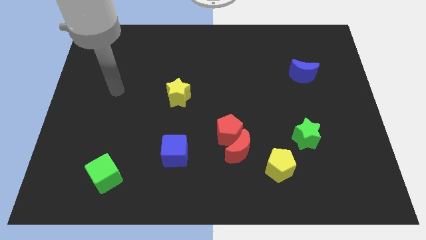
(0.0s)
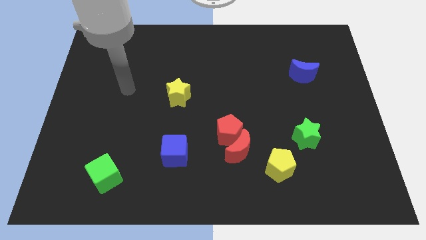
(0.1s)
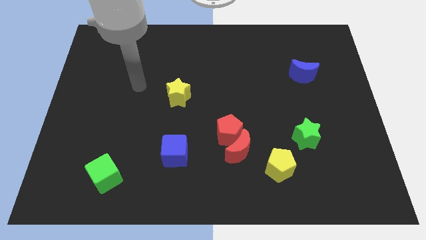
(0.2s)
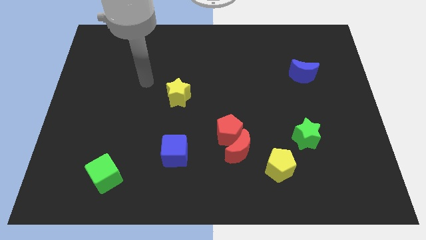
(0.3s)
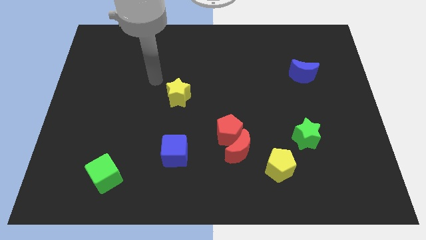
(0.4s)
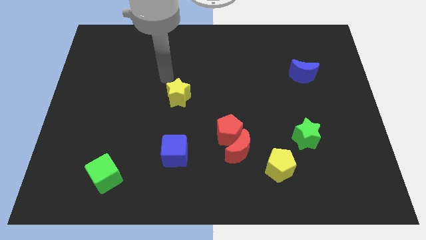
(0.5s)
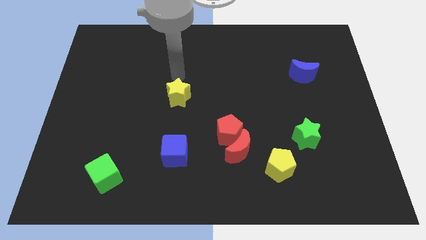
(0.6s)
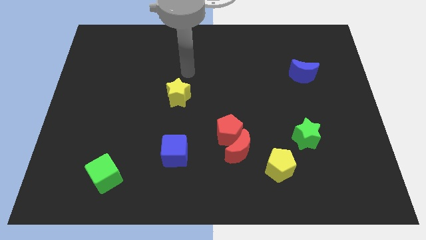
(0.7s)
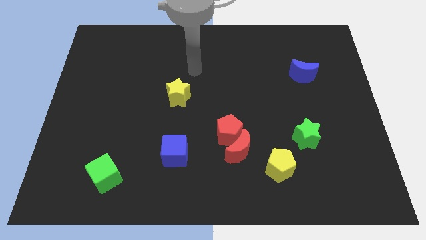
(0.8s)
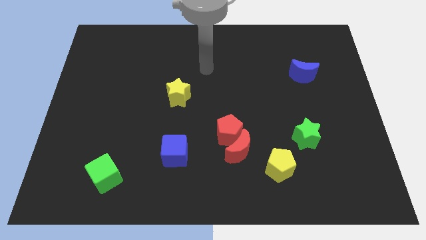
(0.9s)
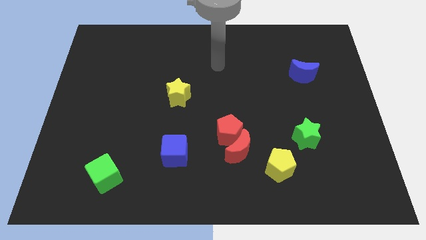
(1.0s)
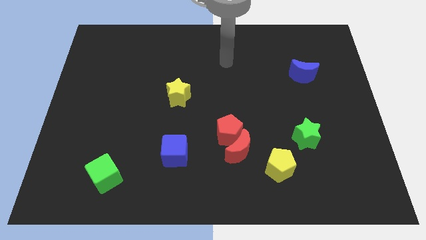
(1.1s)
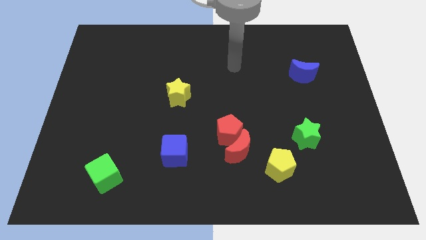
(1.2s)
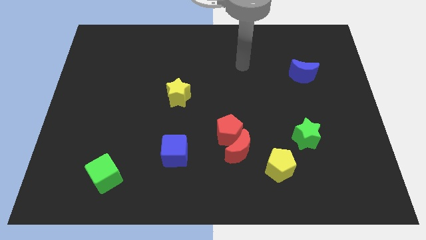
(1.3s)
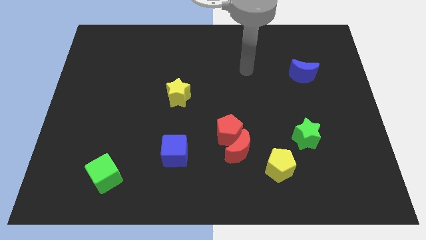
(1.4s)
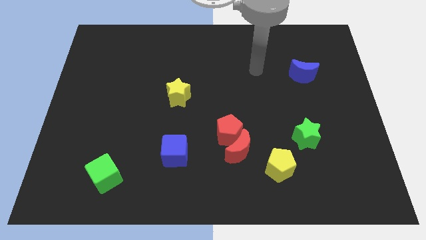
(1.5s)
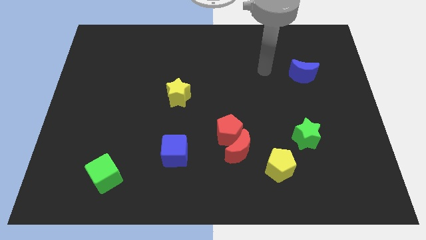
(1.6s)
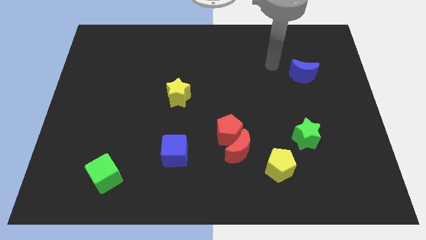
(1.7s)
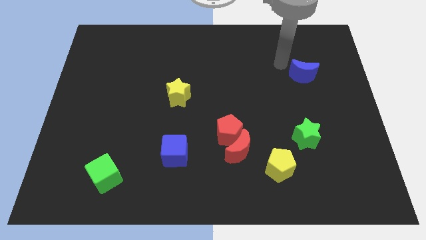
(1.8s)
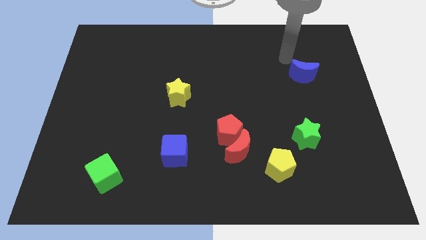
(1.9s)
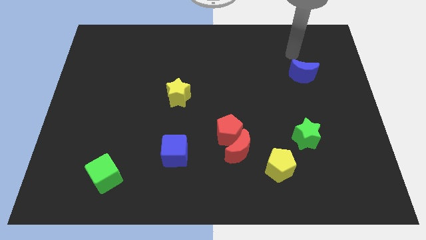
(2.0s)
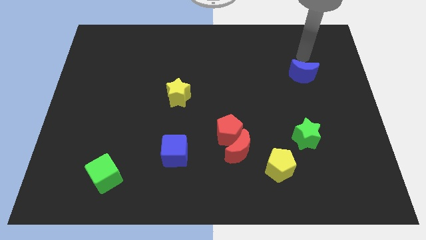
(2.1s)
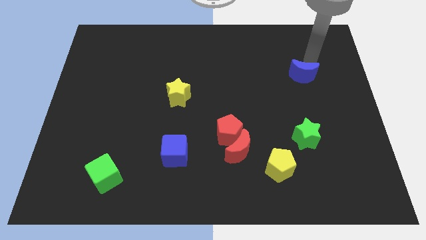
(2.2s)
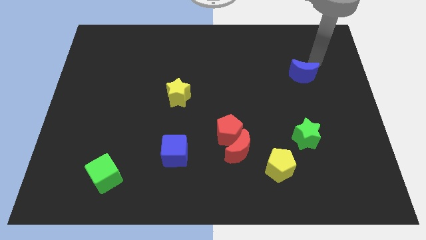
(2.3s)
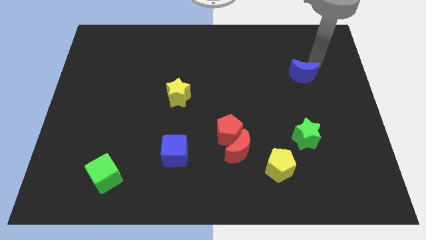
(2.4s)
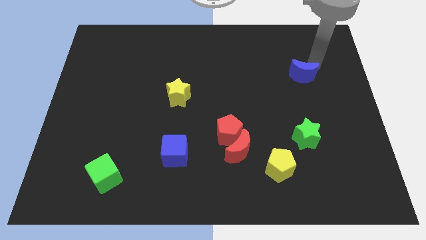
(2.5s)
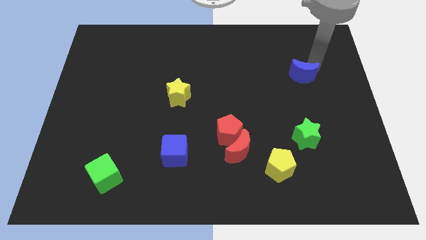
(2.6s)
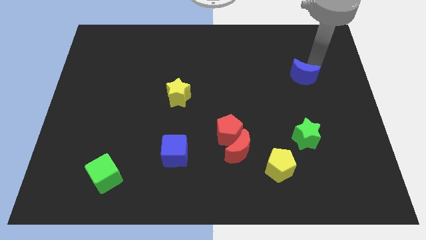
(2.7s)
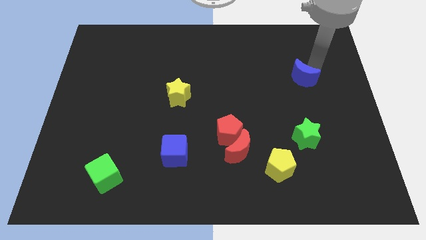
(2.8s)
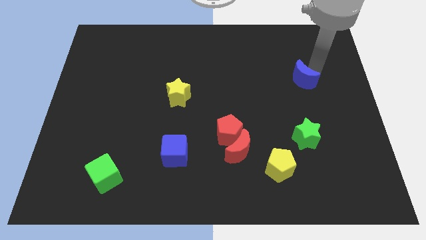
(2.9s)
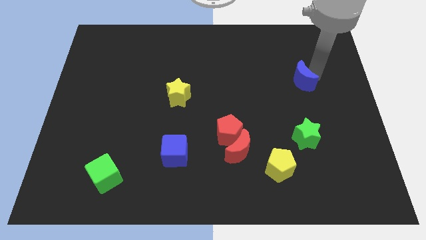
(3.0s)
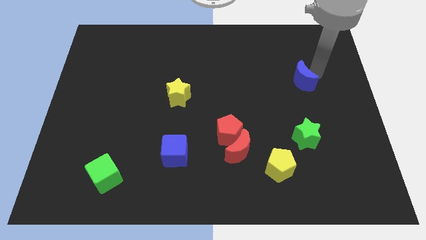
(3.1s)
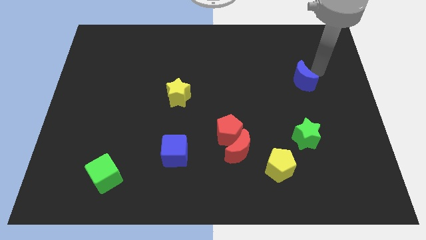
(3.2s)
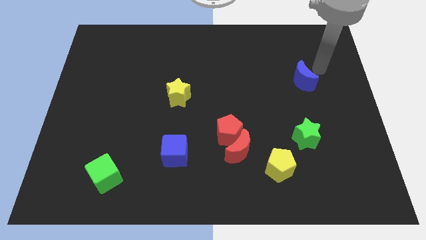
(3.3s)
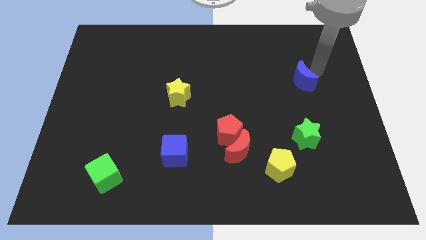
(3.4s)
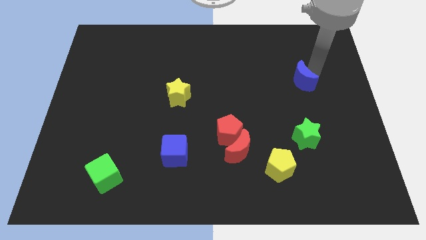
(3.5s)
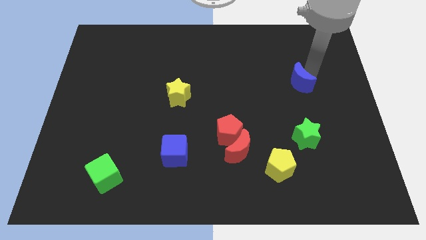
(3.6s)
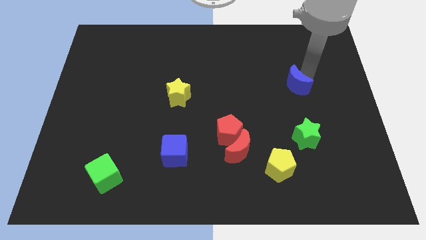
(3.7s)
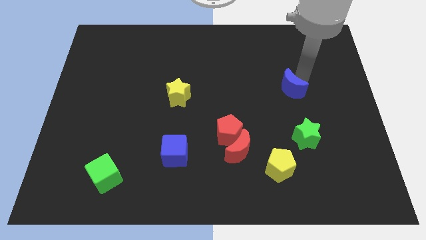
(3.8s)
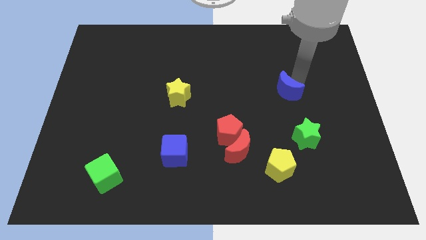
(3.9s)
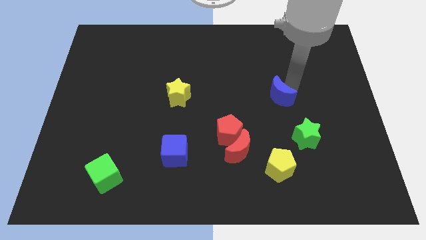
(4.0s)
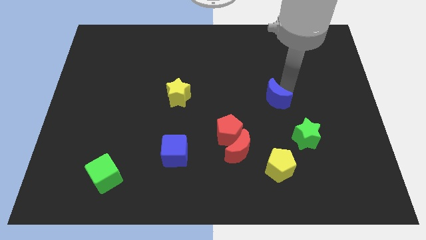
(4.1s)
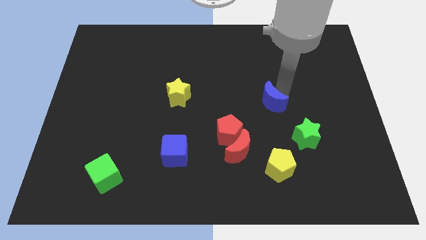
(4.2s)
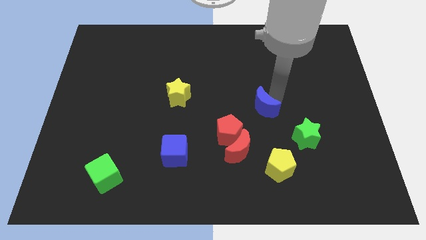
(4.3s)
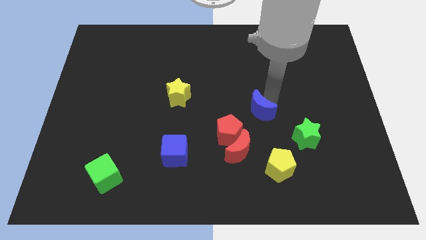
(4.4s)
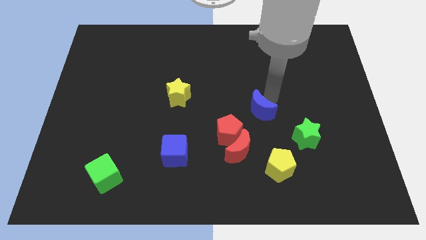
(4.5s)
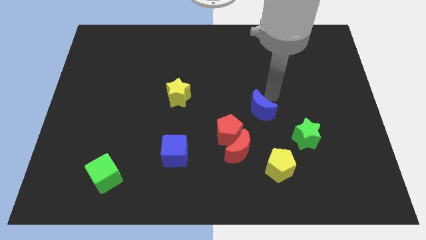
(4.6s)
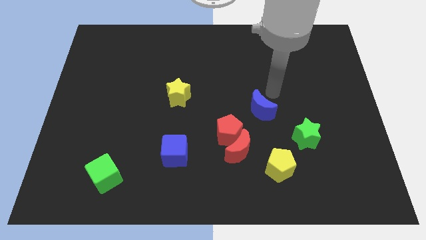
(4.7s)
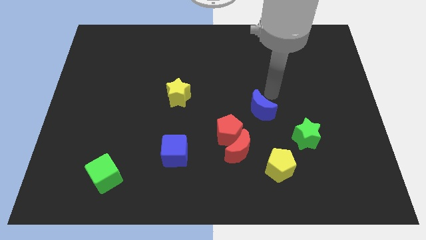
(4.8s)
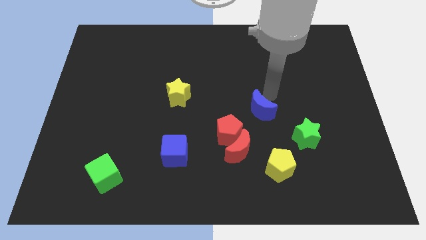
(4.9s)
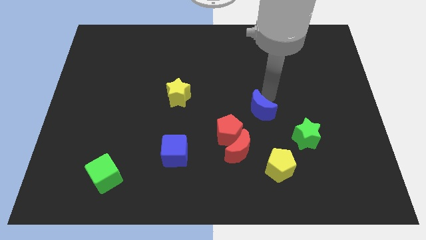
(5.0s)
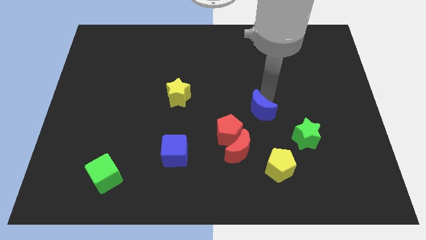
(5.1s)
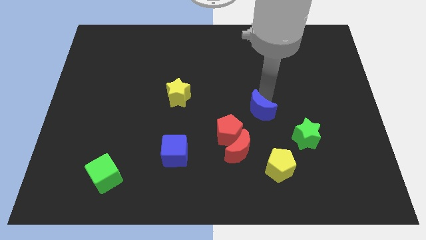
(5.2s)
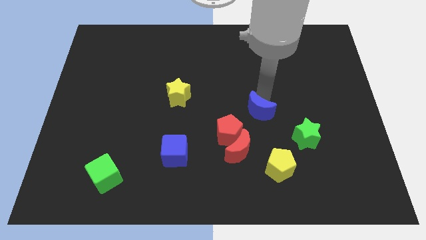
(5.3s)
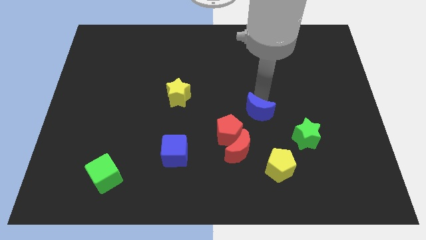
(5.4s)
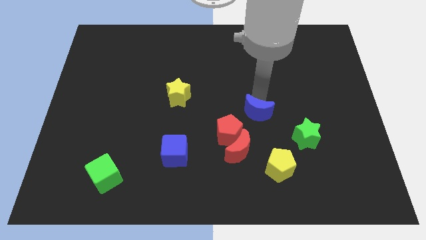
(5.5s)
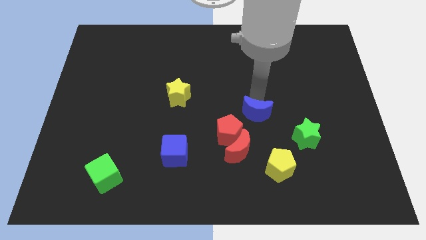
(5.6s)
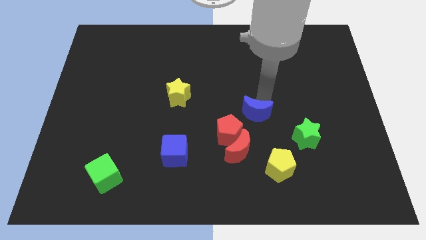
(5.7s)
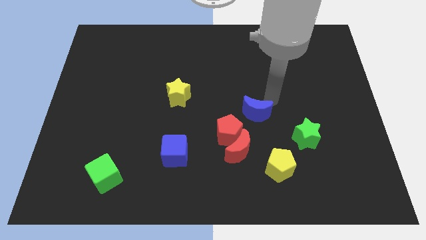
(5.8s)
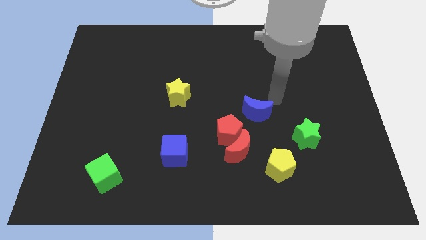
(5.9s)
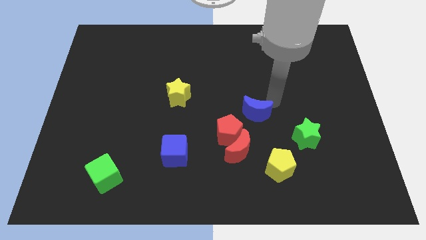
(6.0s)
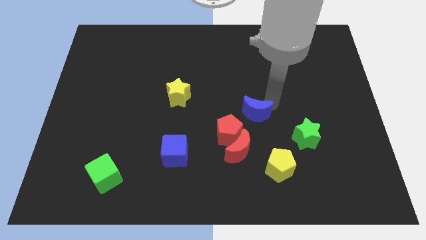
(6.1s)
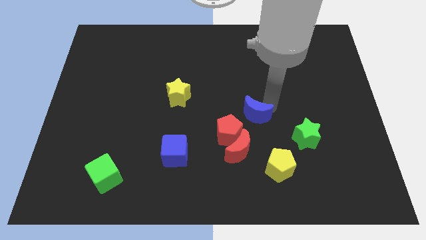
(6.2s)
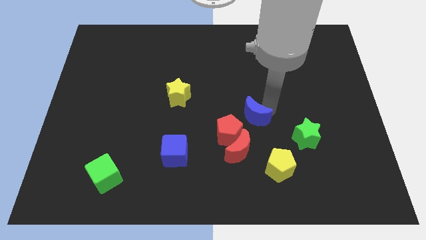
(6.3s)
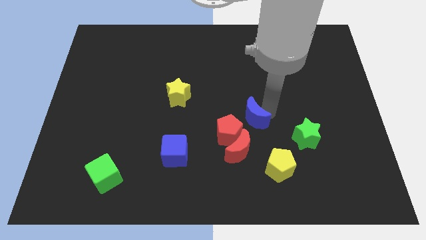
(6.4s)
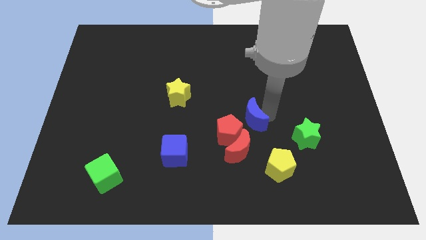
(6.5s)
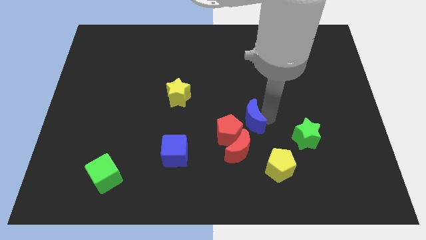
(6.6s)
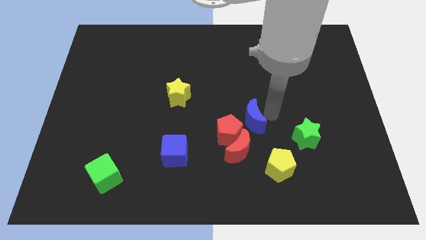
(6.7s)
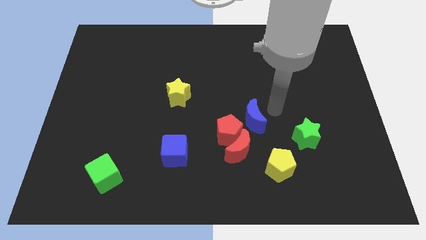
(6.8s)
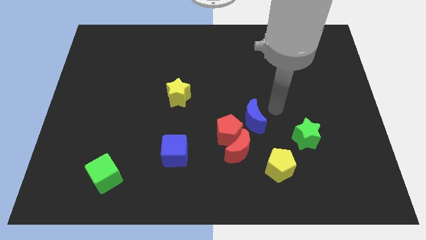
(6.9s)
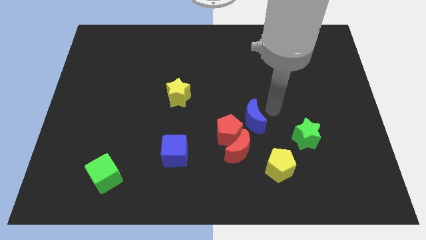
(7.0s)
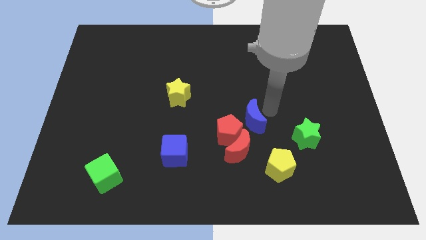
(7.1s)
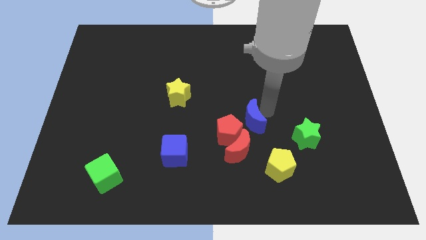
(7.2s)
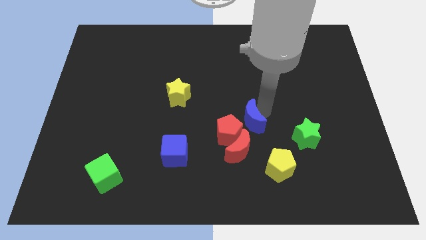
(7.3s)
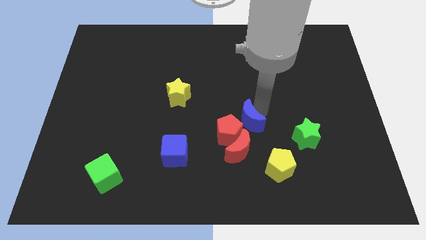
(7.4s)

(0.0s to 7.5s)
put the blue moon towards the red pentagon

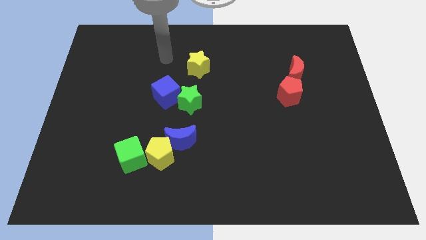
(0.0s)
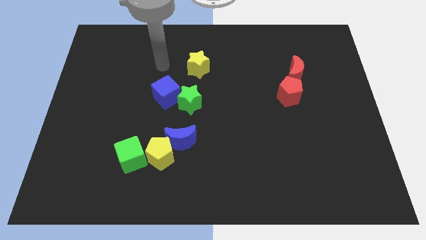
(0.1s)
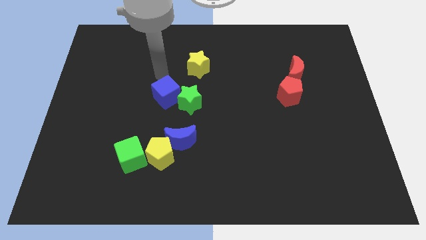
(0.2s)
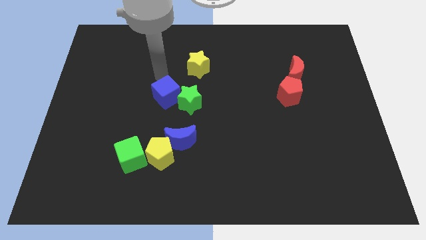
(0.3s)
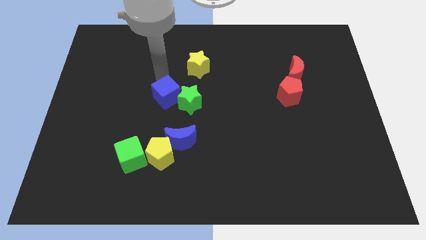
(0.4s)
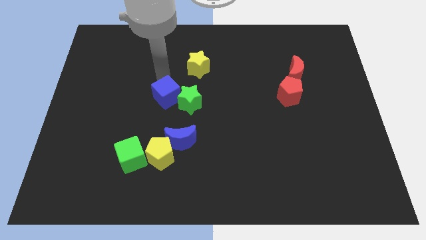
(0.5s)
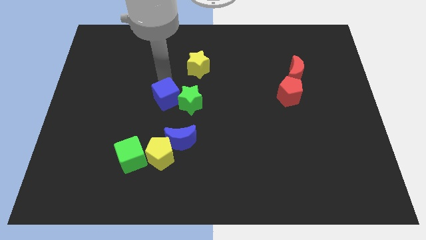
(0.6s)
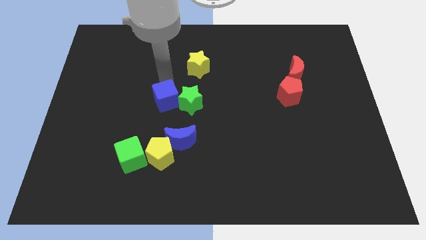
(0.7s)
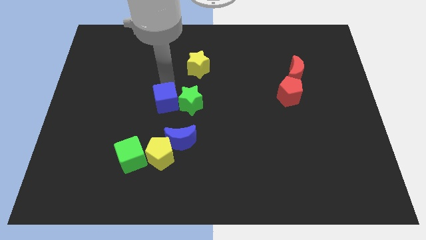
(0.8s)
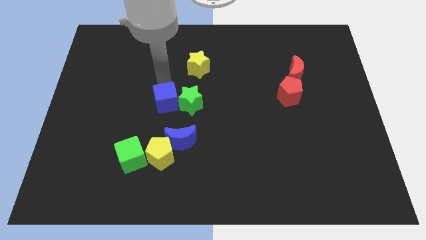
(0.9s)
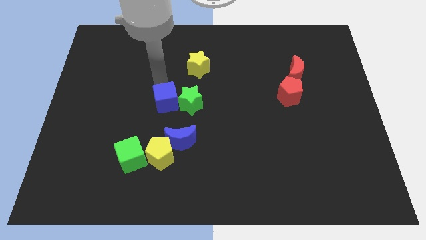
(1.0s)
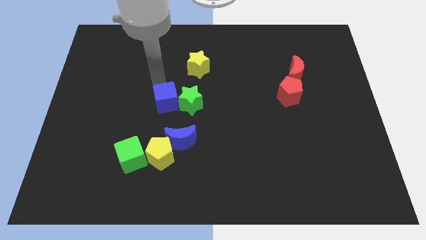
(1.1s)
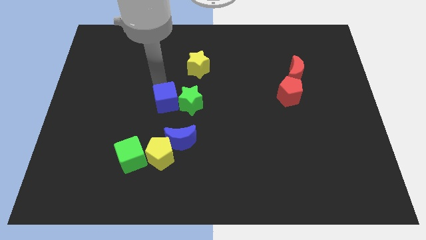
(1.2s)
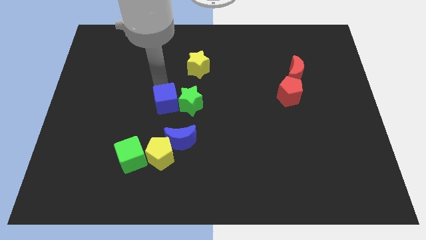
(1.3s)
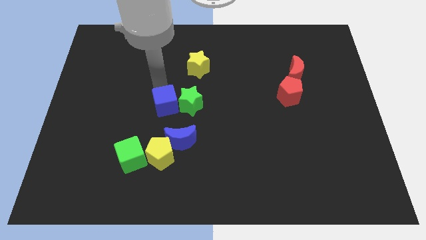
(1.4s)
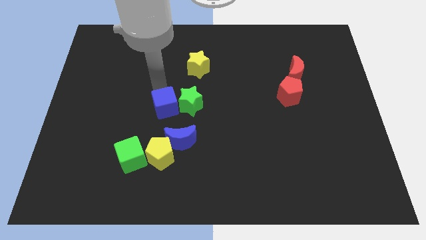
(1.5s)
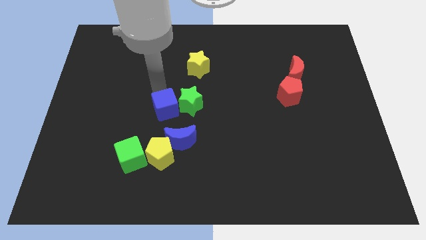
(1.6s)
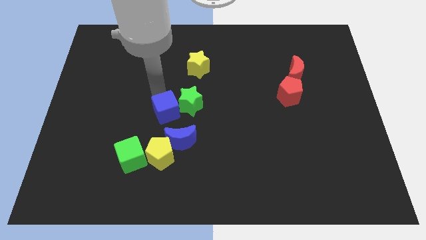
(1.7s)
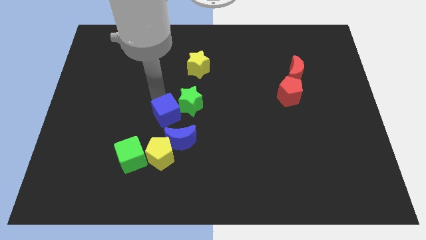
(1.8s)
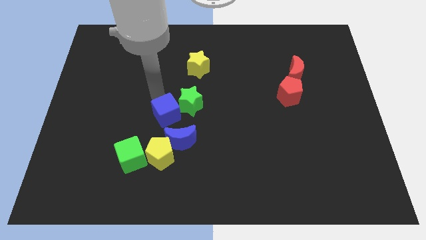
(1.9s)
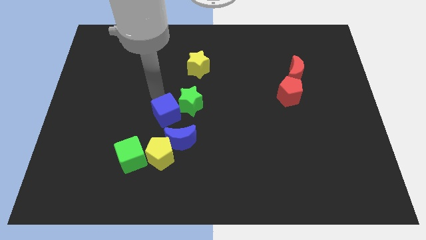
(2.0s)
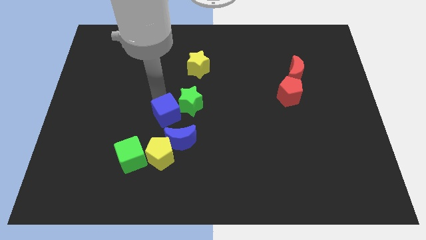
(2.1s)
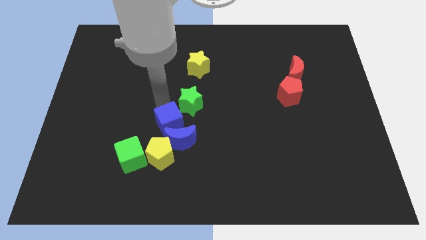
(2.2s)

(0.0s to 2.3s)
put the blue cube next to the blue moon
